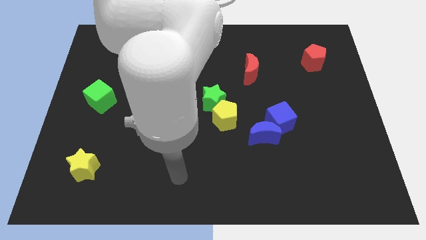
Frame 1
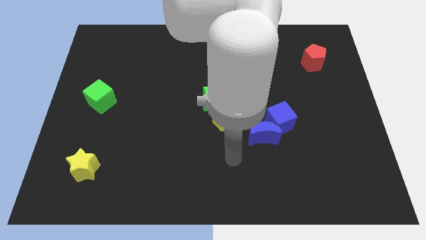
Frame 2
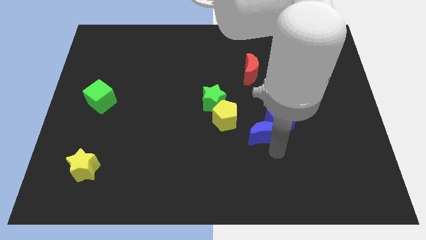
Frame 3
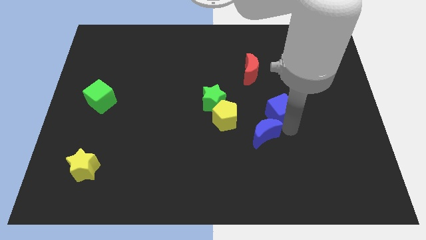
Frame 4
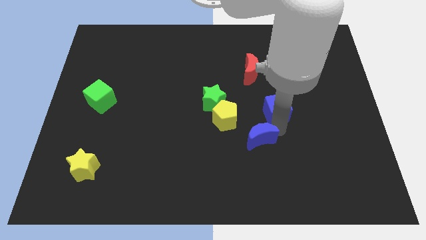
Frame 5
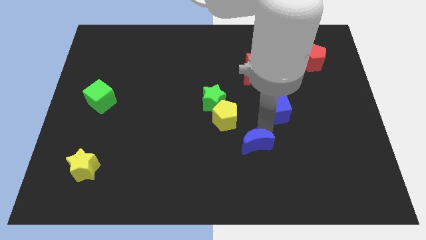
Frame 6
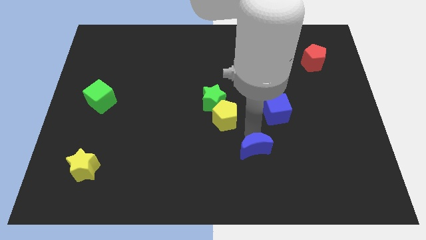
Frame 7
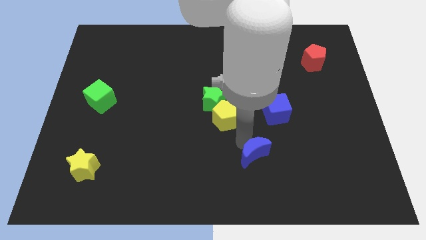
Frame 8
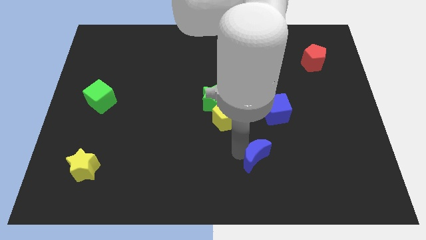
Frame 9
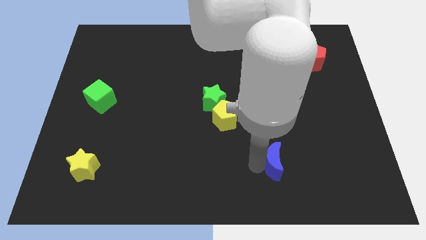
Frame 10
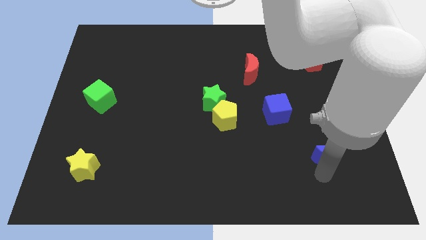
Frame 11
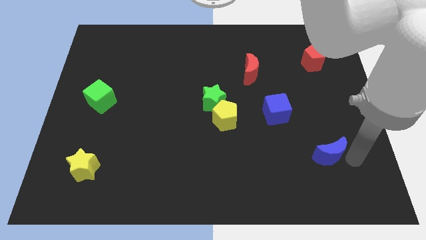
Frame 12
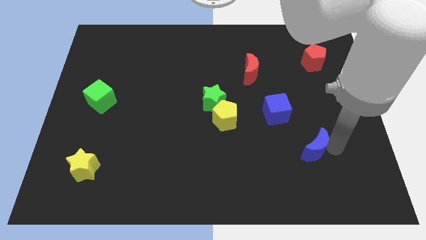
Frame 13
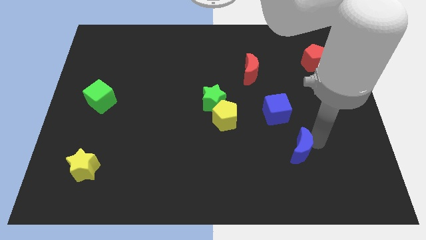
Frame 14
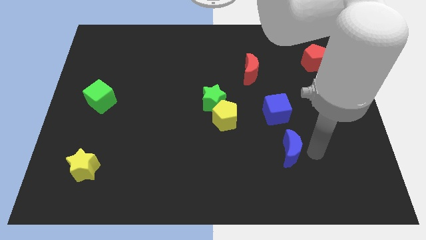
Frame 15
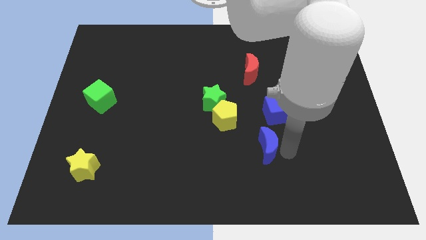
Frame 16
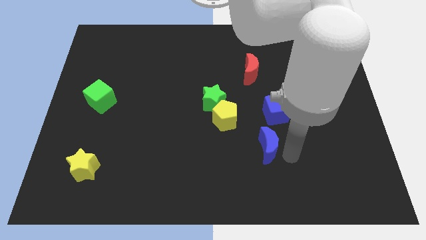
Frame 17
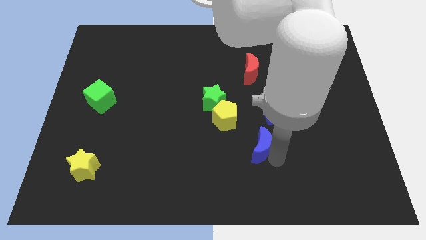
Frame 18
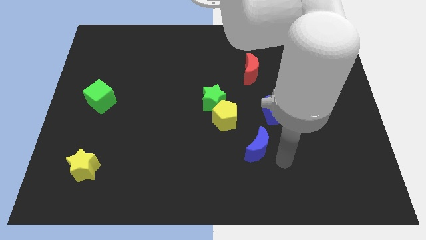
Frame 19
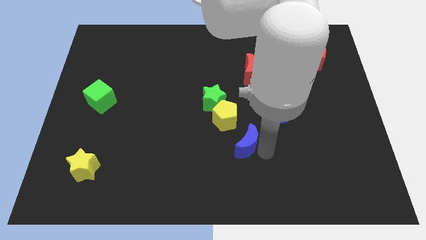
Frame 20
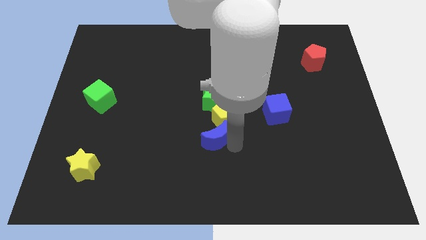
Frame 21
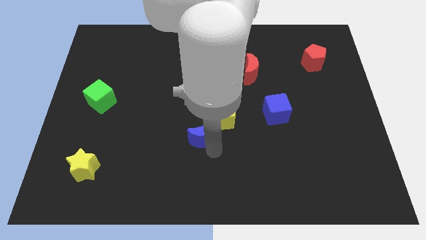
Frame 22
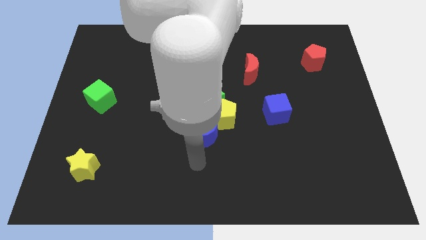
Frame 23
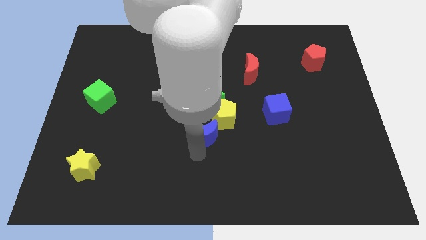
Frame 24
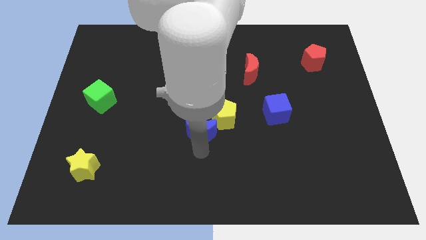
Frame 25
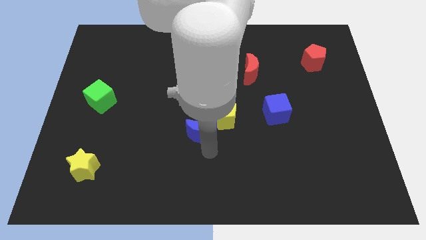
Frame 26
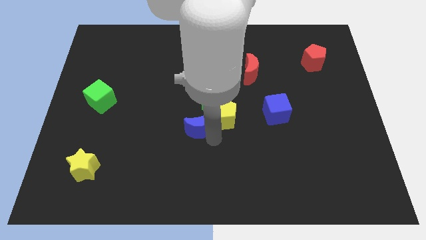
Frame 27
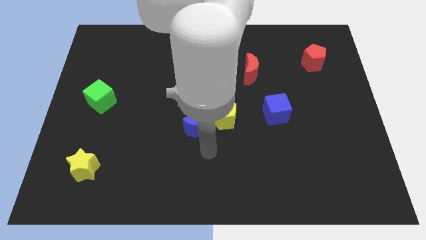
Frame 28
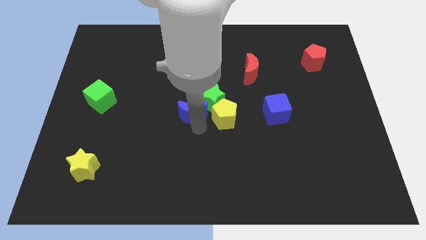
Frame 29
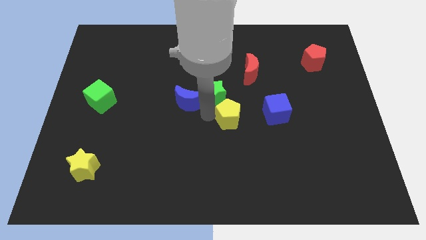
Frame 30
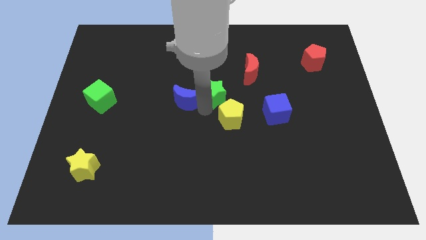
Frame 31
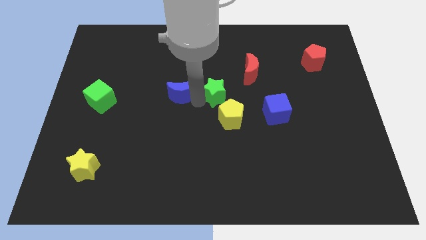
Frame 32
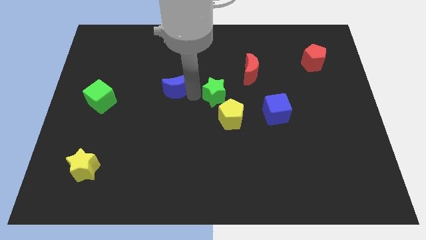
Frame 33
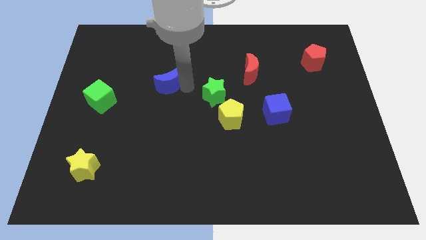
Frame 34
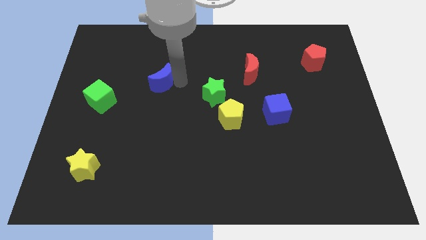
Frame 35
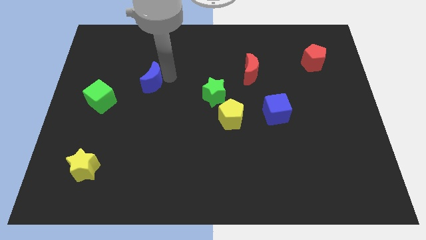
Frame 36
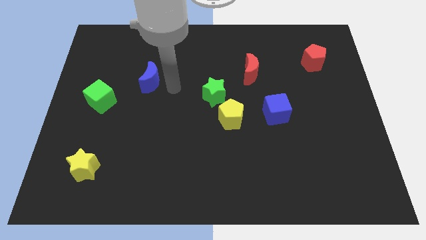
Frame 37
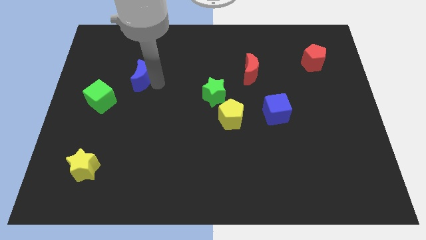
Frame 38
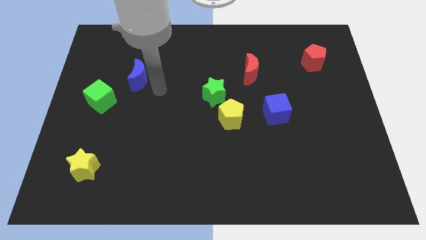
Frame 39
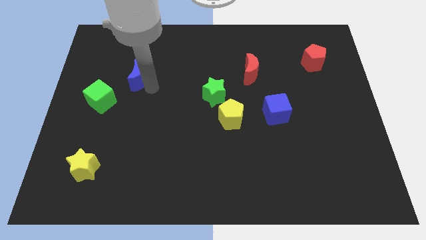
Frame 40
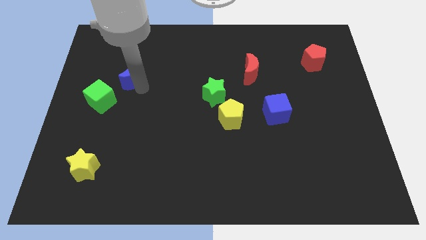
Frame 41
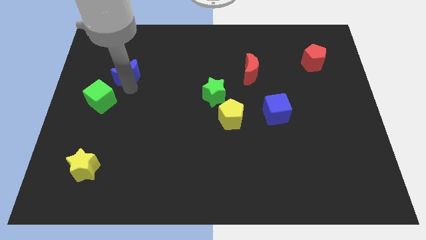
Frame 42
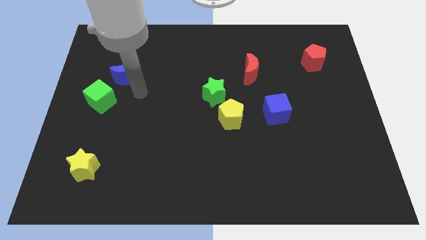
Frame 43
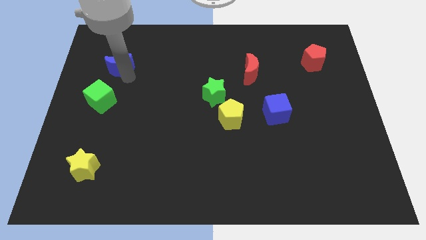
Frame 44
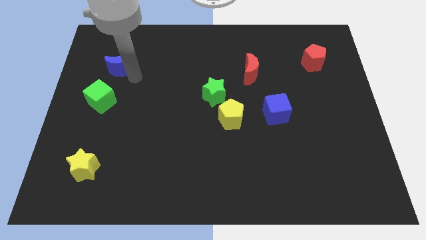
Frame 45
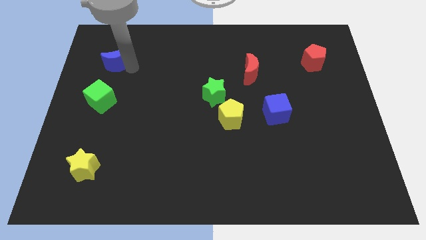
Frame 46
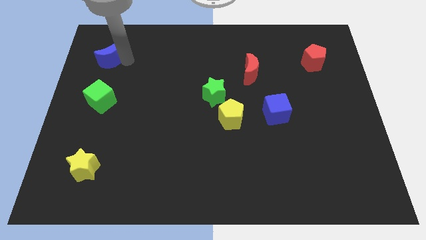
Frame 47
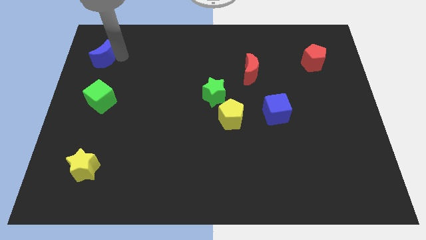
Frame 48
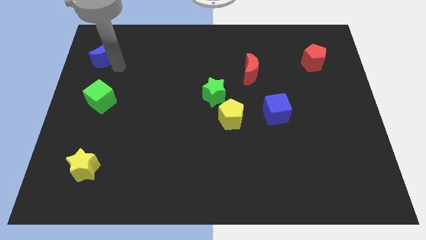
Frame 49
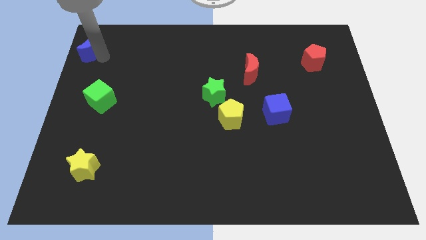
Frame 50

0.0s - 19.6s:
put the blue moon to the top left corner

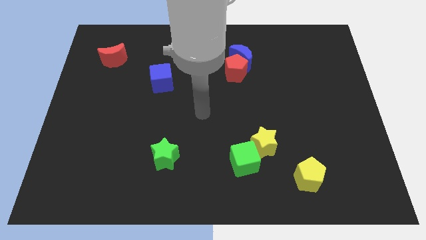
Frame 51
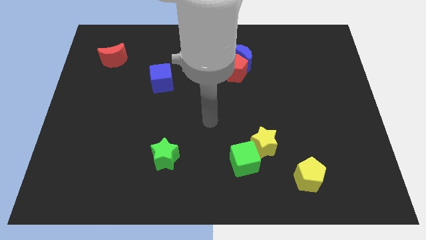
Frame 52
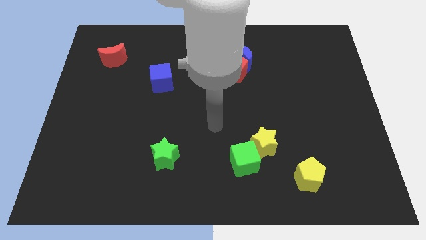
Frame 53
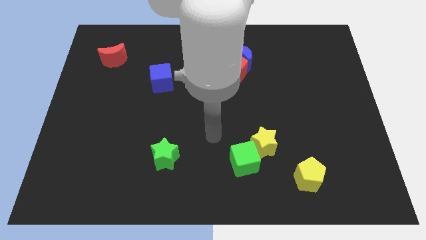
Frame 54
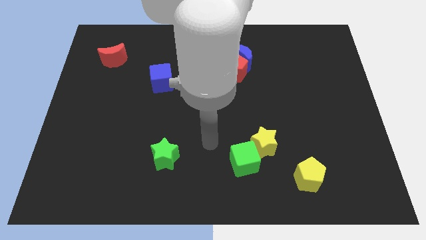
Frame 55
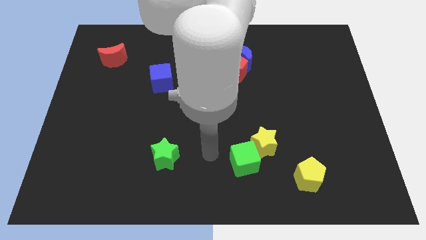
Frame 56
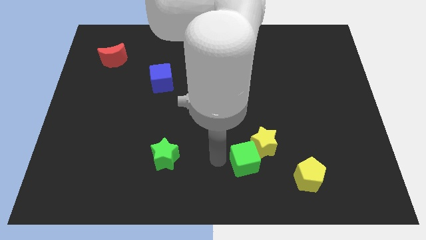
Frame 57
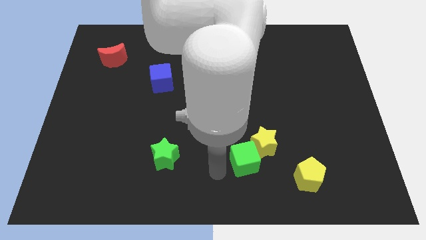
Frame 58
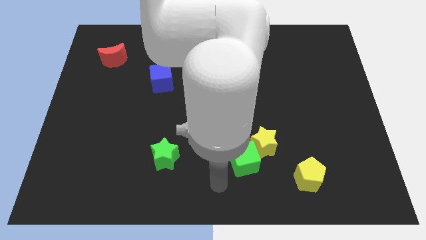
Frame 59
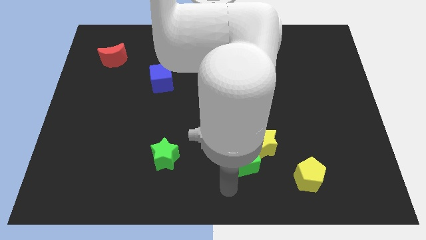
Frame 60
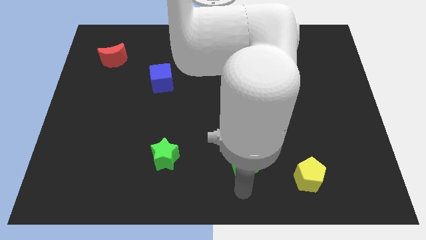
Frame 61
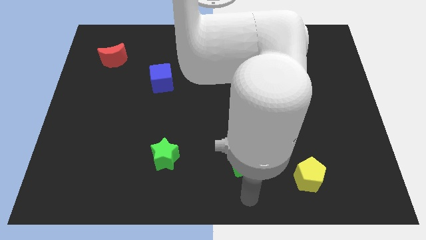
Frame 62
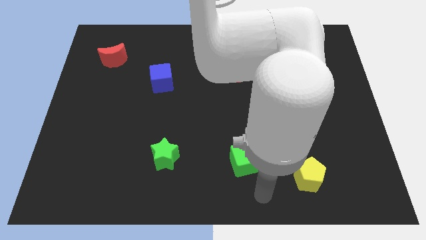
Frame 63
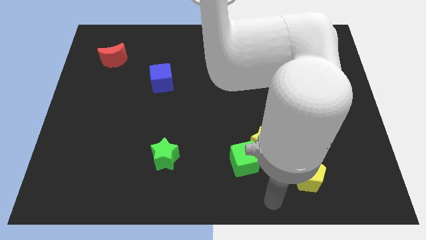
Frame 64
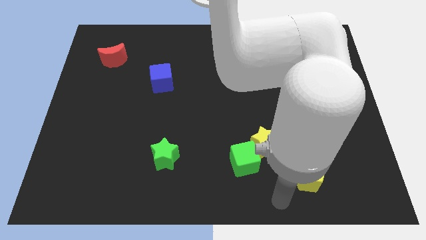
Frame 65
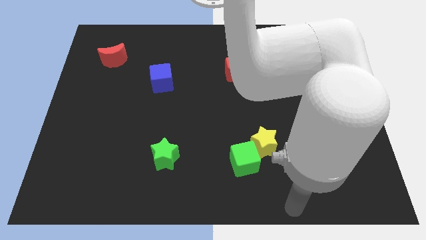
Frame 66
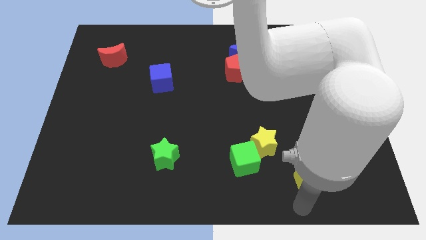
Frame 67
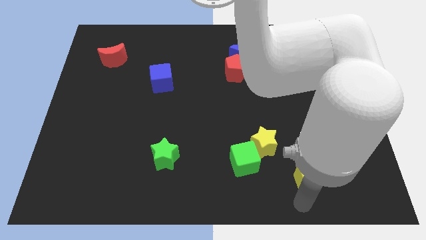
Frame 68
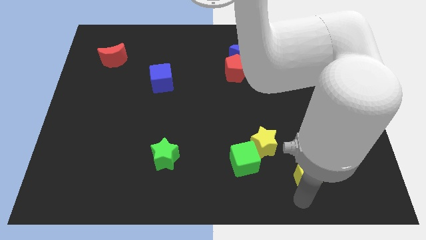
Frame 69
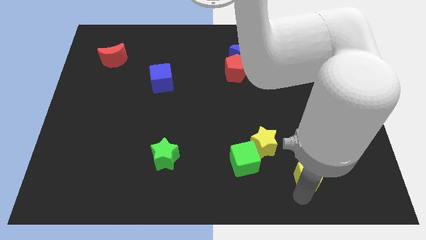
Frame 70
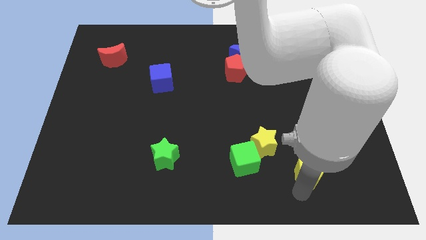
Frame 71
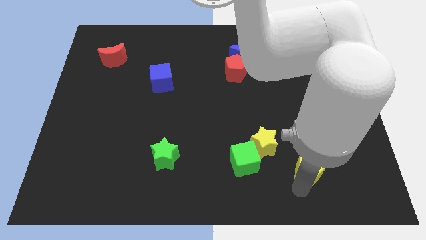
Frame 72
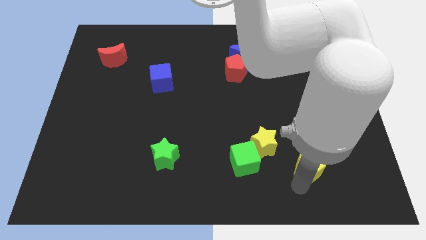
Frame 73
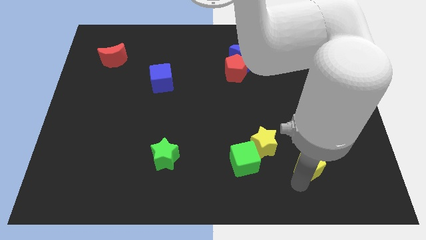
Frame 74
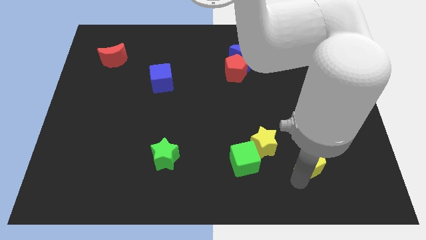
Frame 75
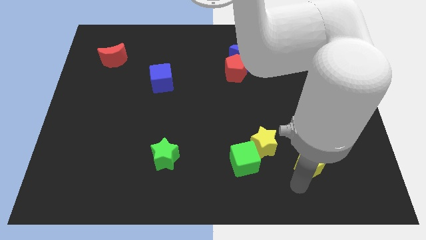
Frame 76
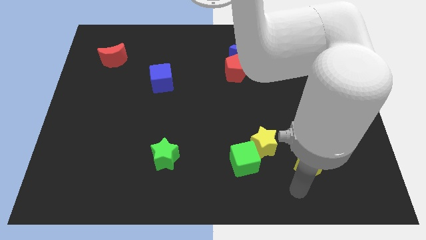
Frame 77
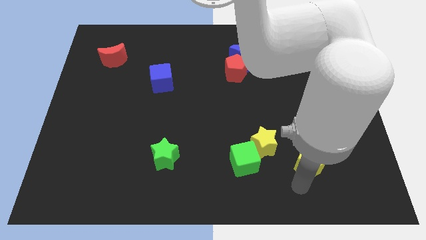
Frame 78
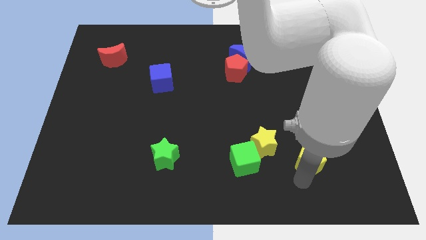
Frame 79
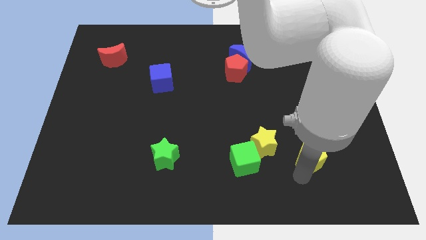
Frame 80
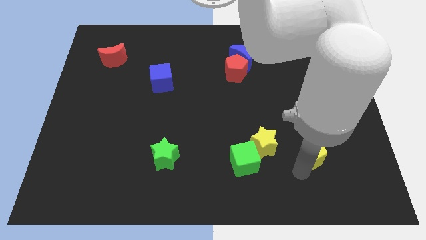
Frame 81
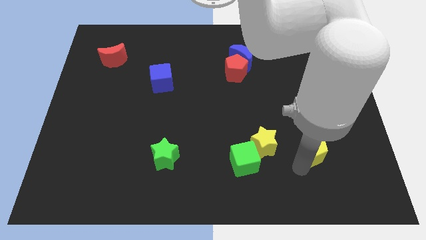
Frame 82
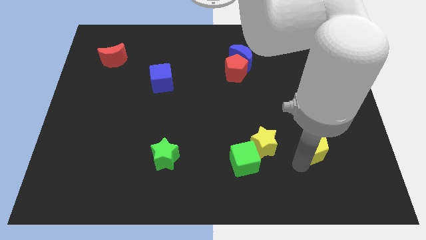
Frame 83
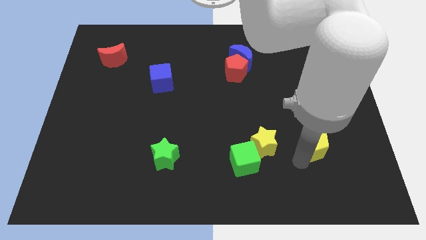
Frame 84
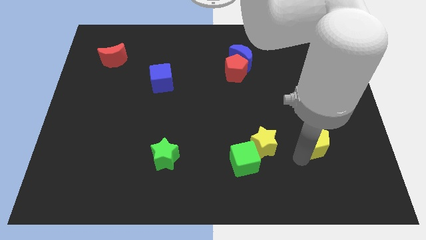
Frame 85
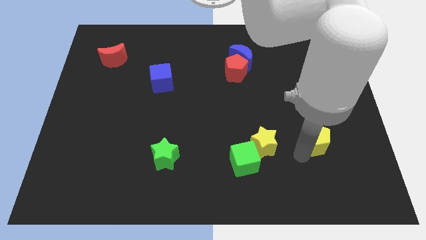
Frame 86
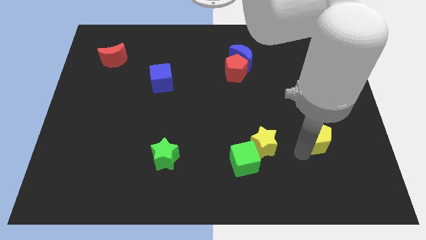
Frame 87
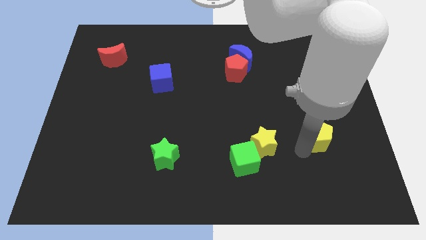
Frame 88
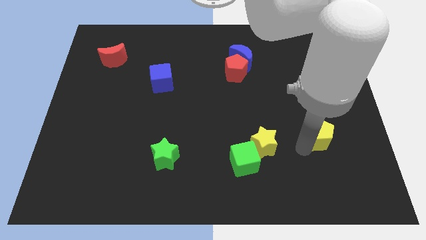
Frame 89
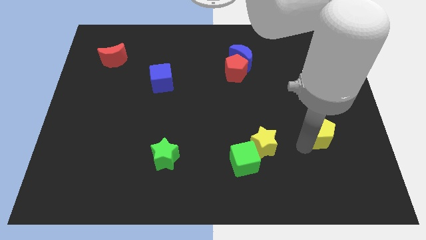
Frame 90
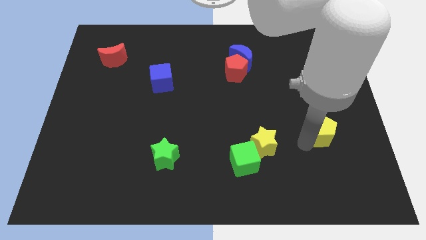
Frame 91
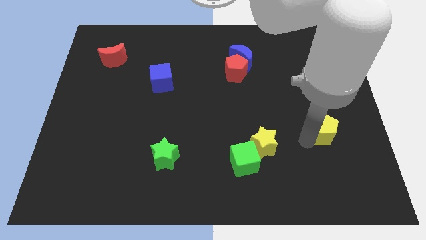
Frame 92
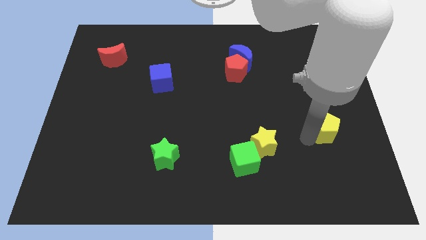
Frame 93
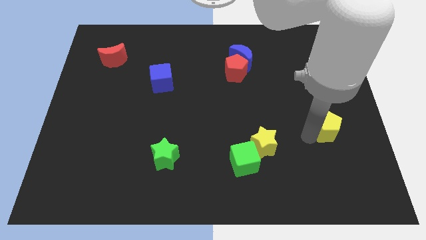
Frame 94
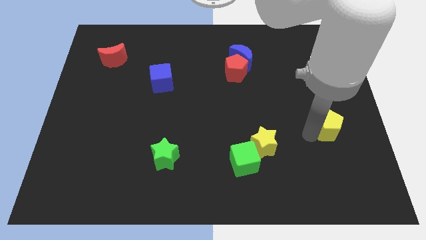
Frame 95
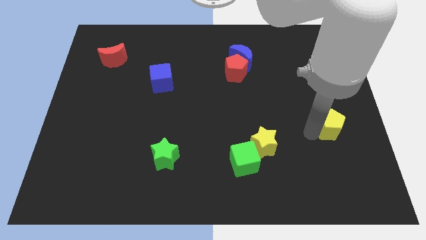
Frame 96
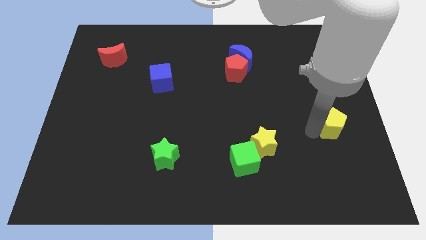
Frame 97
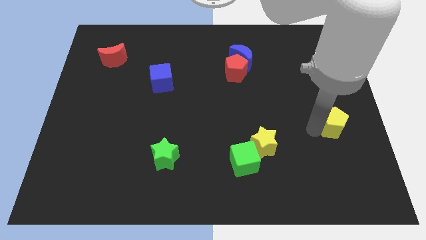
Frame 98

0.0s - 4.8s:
push the yellow pentagon to the center right
